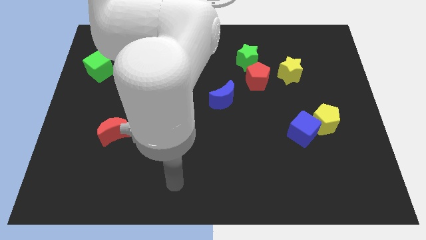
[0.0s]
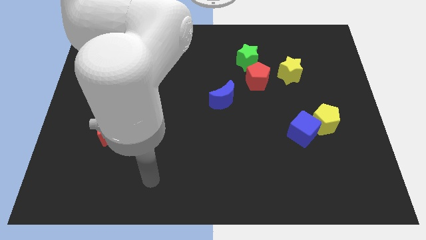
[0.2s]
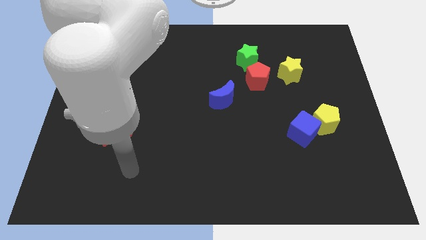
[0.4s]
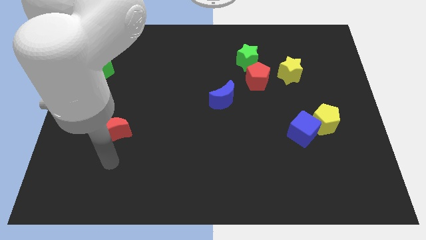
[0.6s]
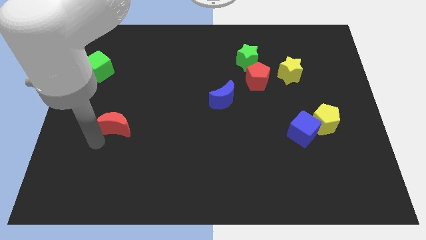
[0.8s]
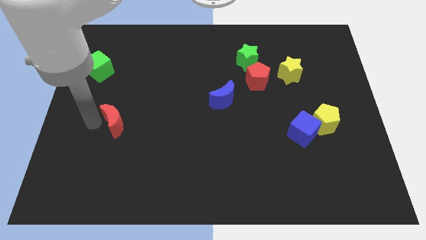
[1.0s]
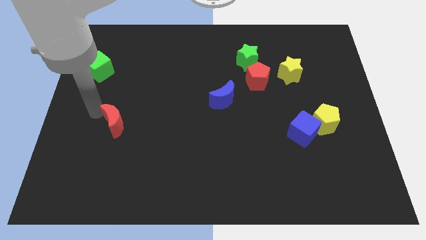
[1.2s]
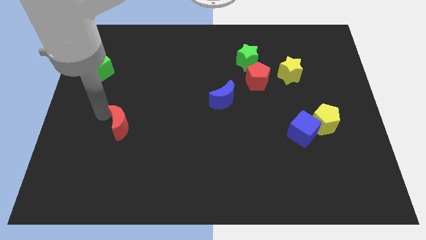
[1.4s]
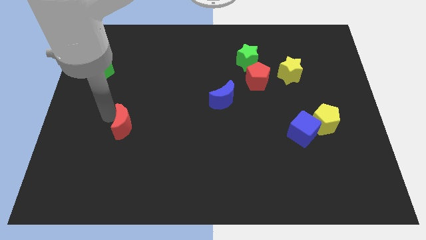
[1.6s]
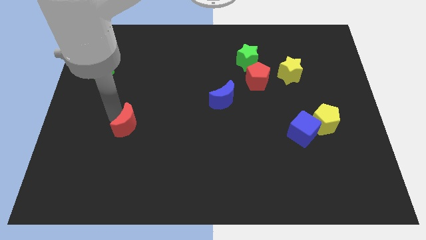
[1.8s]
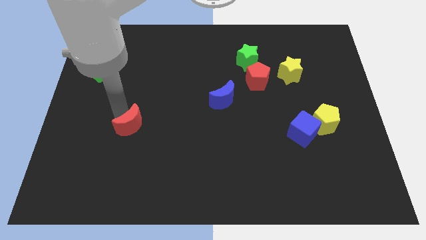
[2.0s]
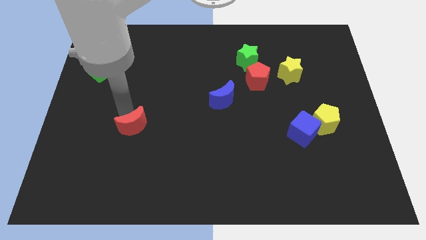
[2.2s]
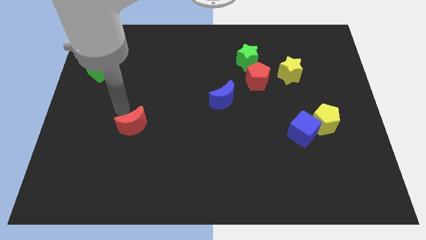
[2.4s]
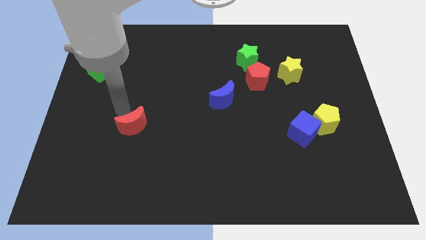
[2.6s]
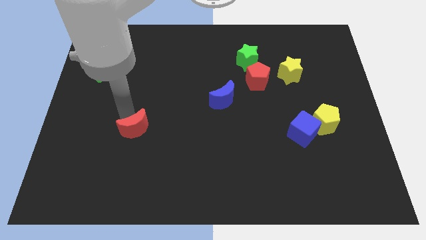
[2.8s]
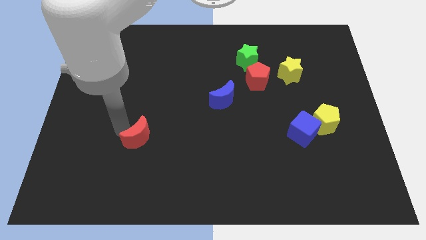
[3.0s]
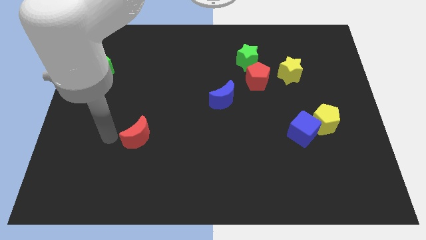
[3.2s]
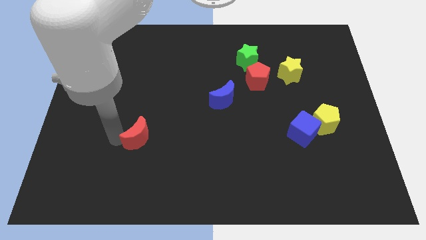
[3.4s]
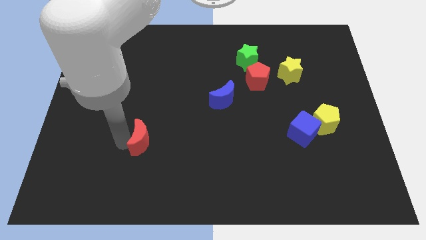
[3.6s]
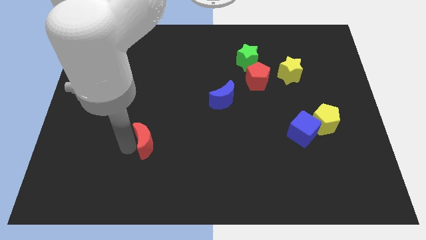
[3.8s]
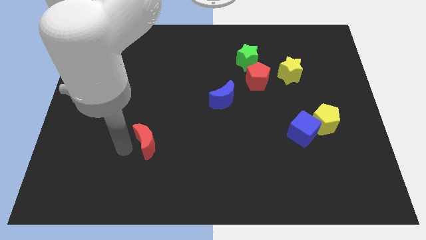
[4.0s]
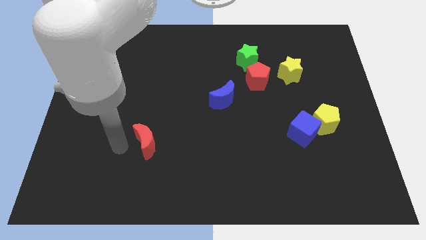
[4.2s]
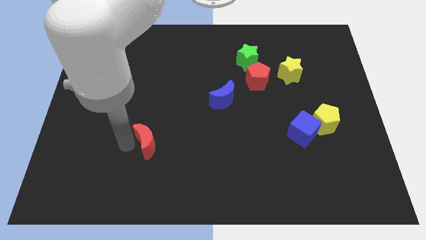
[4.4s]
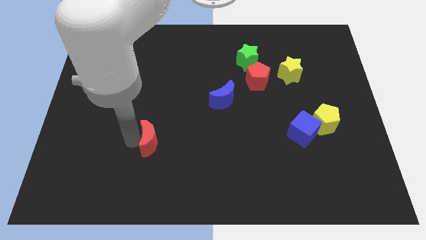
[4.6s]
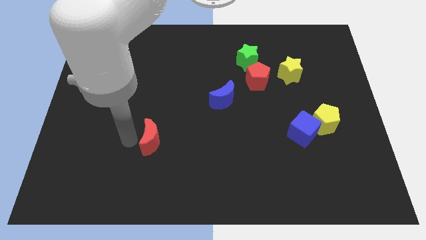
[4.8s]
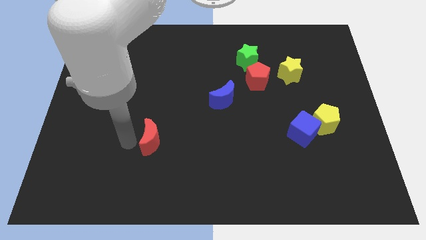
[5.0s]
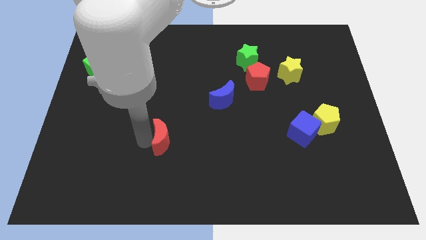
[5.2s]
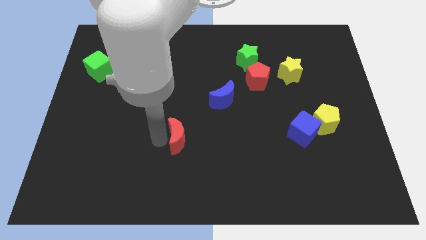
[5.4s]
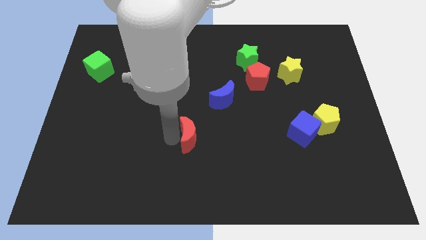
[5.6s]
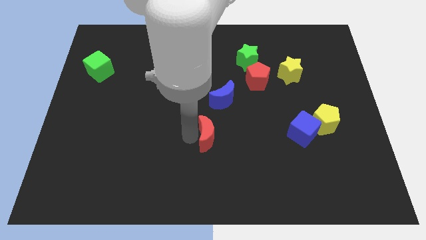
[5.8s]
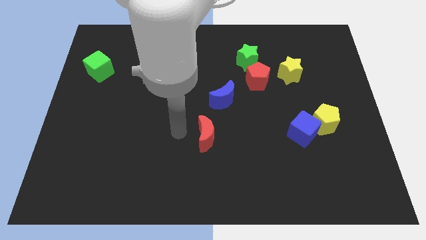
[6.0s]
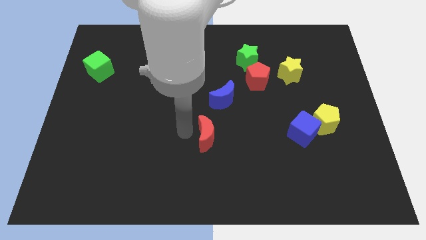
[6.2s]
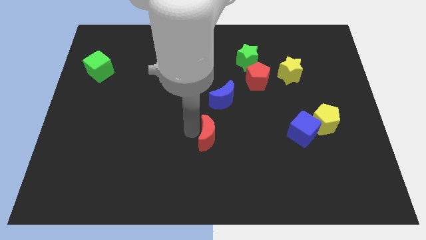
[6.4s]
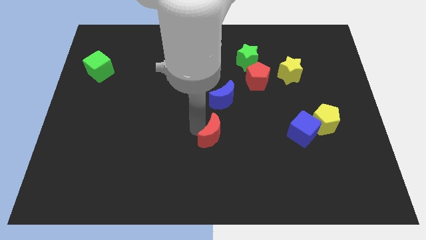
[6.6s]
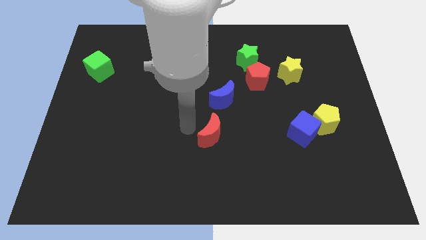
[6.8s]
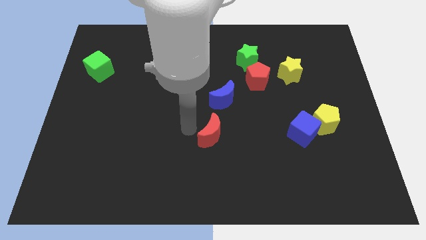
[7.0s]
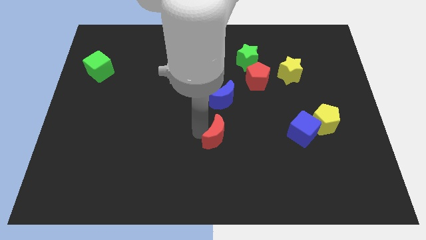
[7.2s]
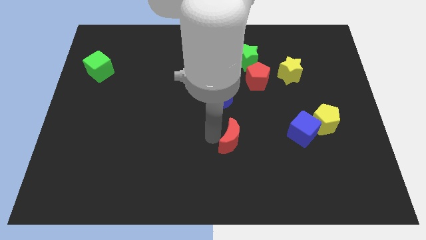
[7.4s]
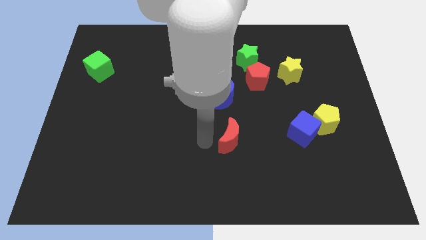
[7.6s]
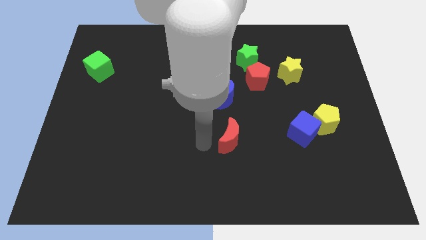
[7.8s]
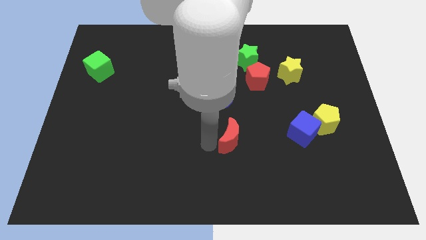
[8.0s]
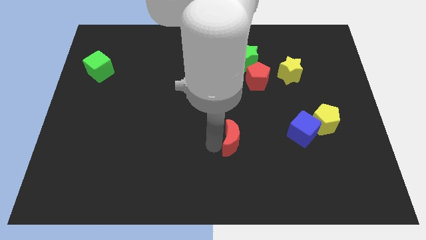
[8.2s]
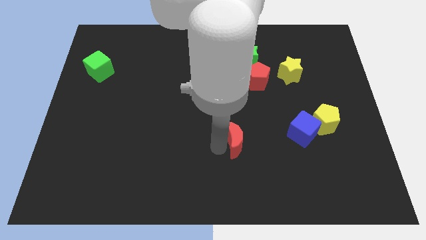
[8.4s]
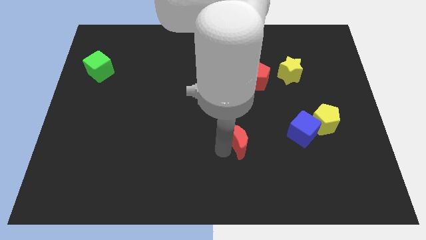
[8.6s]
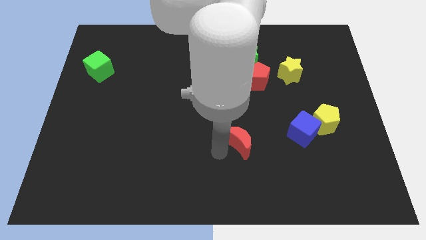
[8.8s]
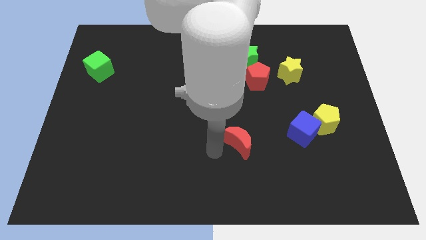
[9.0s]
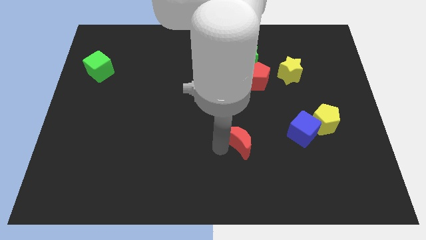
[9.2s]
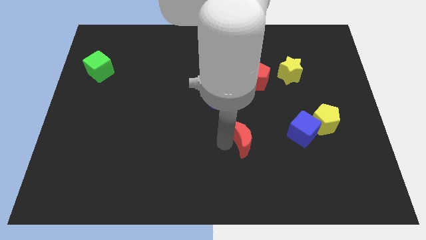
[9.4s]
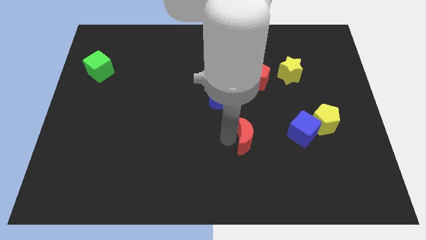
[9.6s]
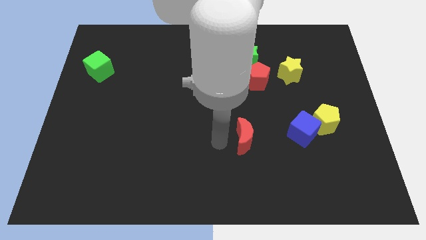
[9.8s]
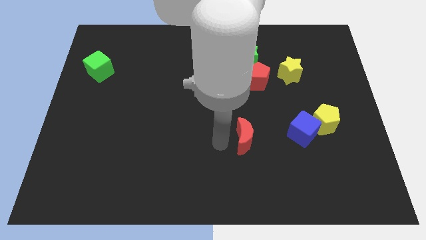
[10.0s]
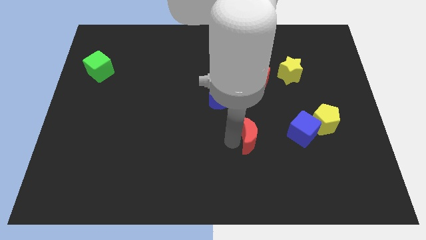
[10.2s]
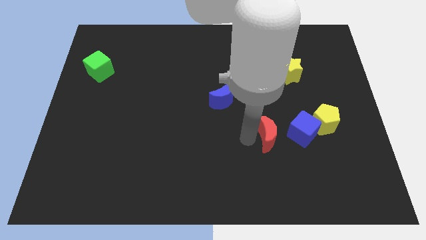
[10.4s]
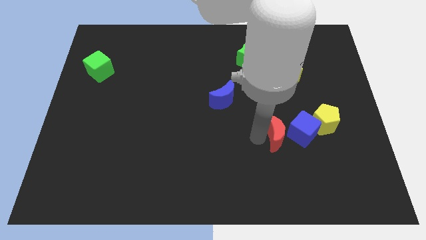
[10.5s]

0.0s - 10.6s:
slide the red moon next to the blue cube

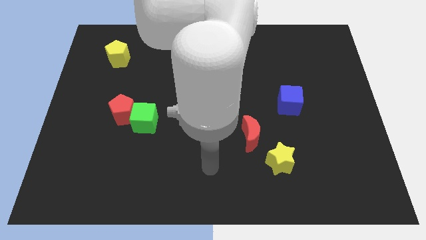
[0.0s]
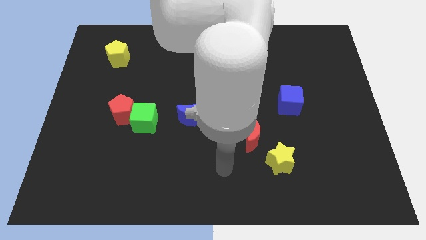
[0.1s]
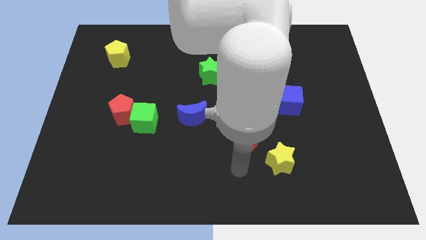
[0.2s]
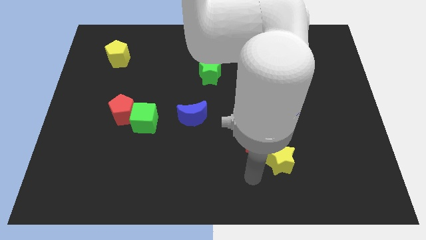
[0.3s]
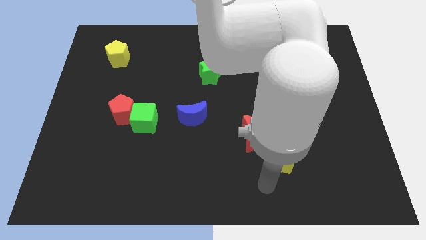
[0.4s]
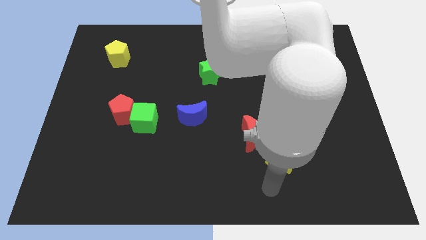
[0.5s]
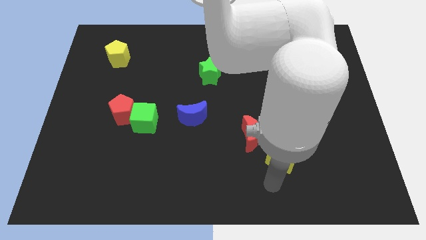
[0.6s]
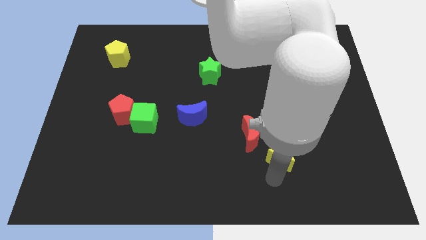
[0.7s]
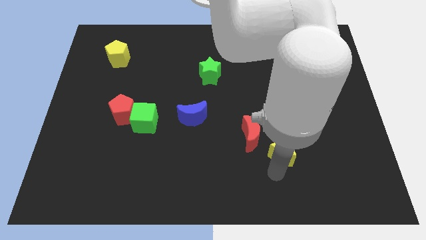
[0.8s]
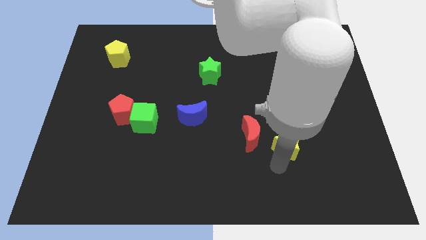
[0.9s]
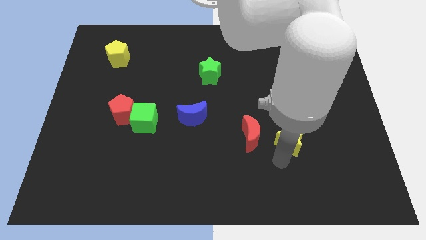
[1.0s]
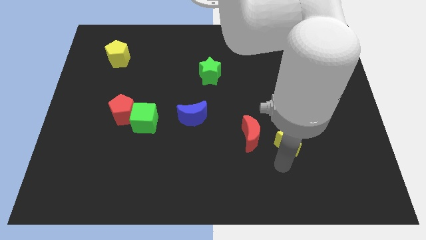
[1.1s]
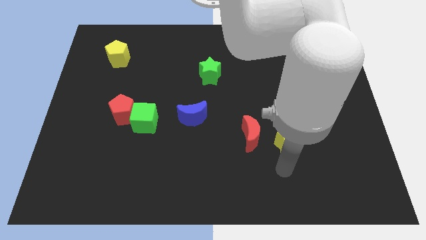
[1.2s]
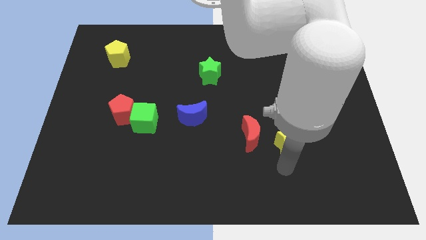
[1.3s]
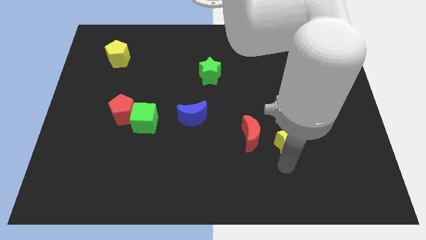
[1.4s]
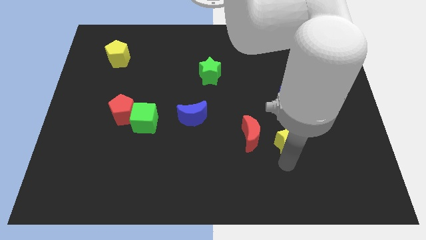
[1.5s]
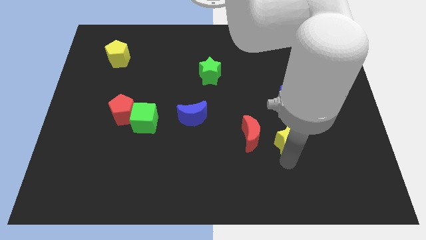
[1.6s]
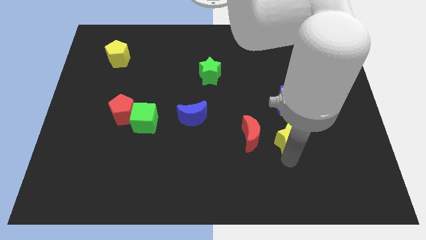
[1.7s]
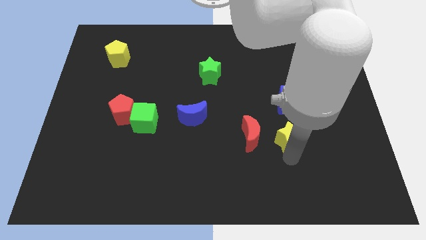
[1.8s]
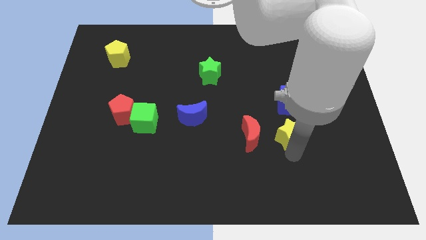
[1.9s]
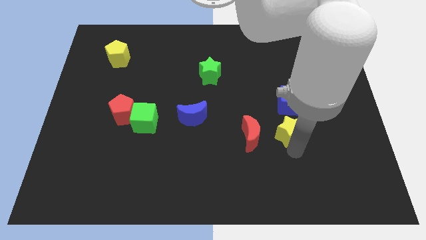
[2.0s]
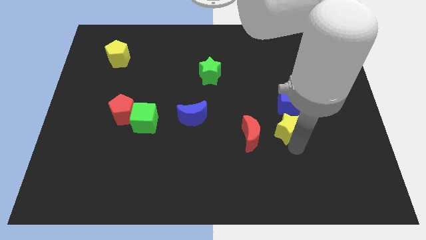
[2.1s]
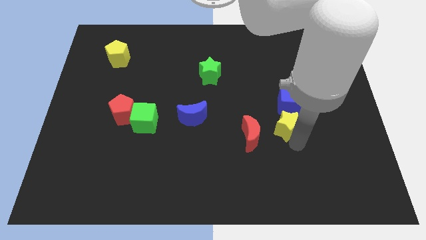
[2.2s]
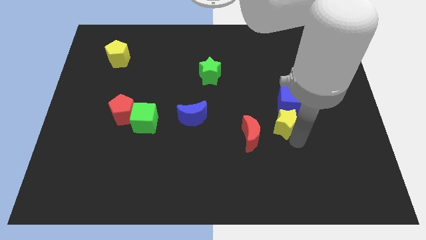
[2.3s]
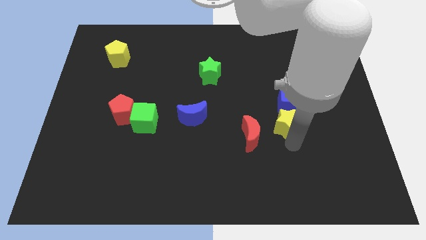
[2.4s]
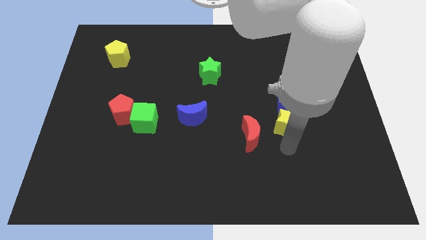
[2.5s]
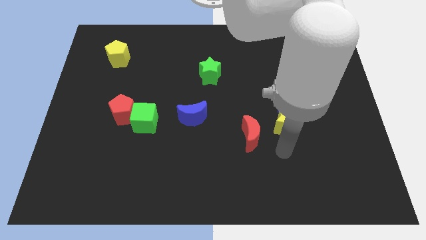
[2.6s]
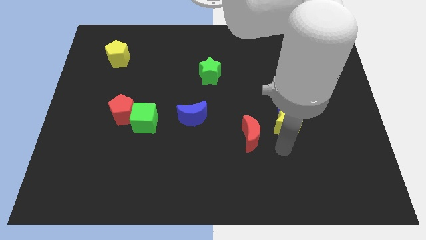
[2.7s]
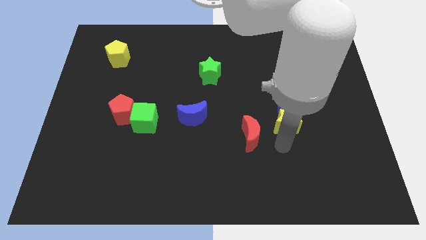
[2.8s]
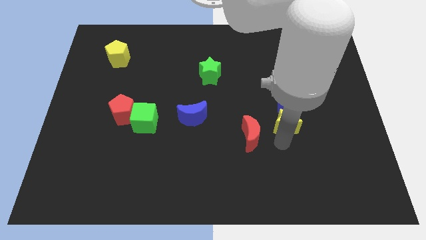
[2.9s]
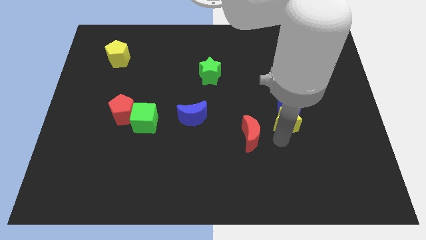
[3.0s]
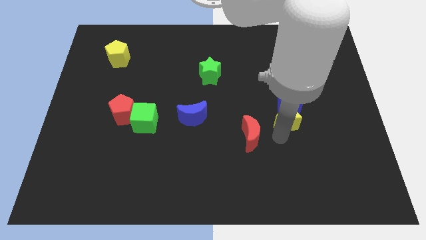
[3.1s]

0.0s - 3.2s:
put the yellow star towards the blue cube
